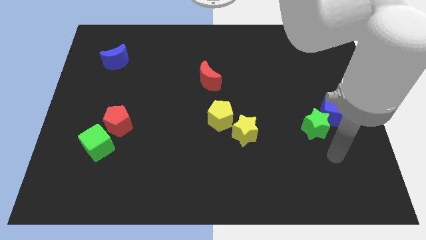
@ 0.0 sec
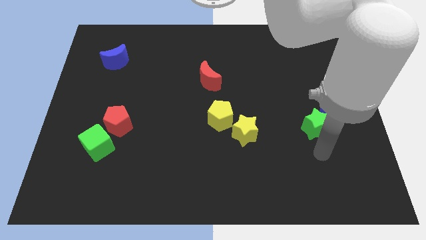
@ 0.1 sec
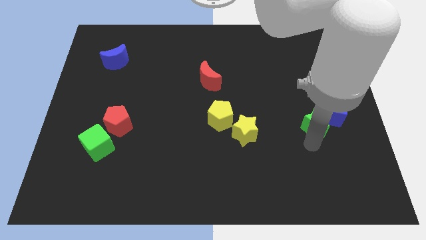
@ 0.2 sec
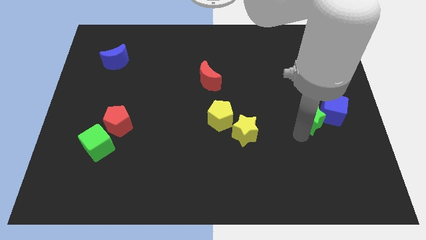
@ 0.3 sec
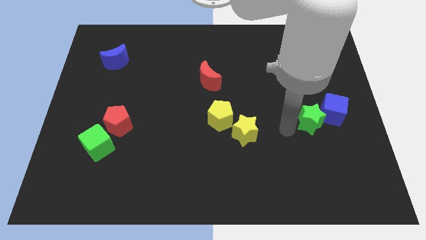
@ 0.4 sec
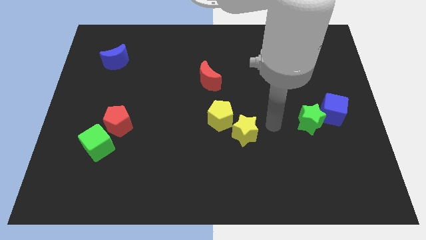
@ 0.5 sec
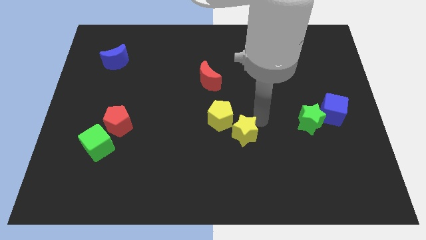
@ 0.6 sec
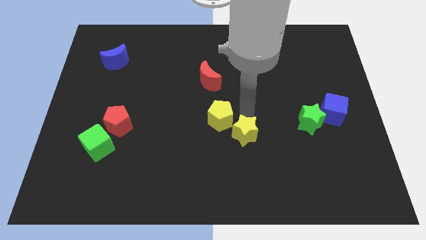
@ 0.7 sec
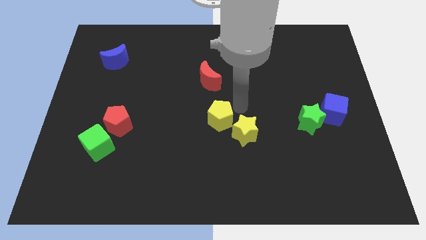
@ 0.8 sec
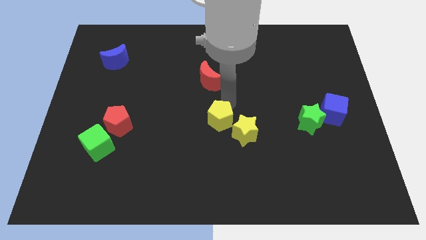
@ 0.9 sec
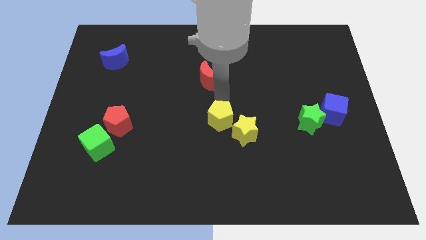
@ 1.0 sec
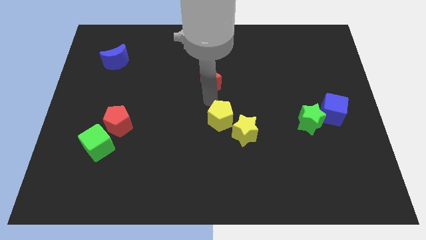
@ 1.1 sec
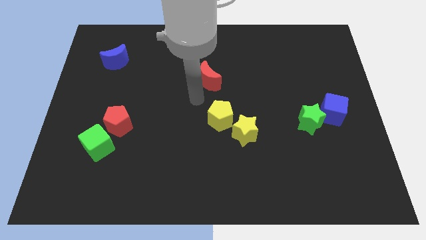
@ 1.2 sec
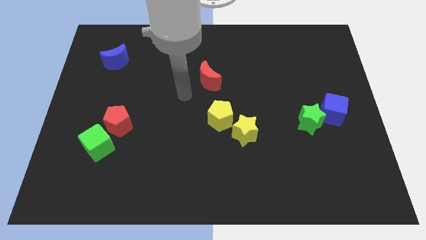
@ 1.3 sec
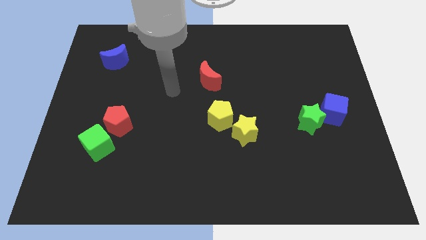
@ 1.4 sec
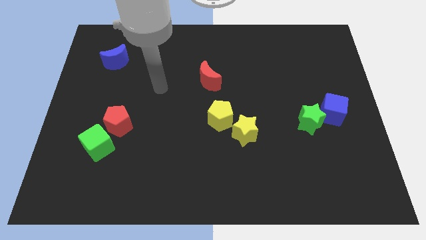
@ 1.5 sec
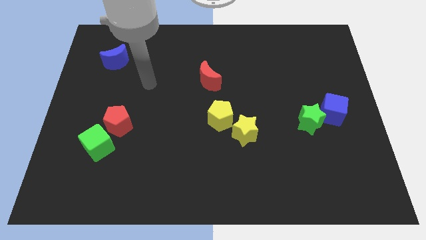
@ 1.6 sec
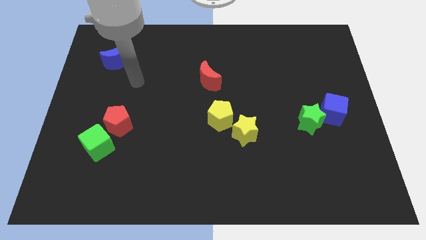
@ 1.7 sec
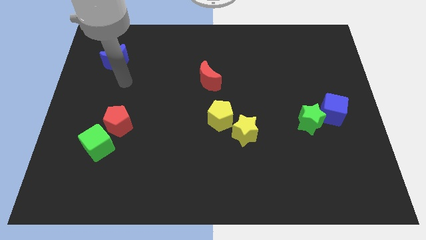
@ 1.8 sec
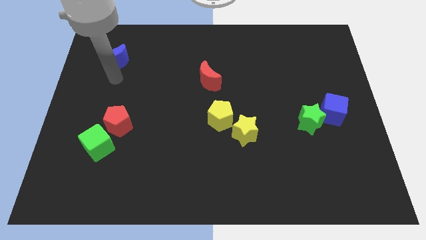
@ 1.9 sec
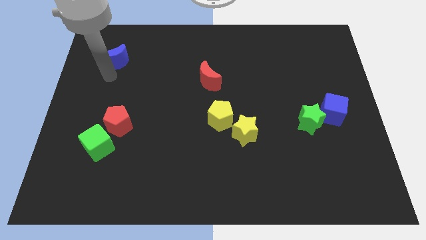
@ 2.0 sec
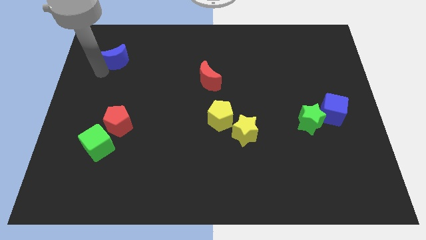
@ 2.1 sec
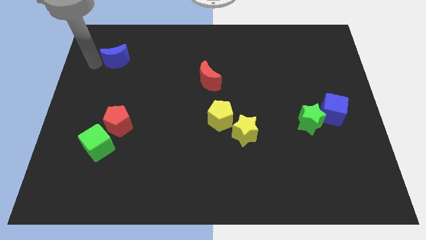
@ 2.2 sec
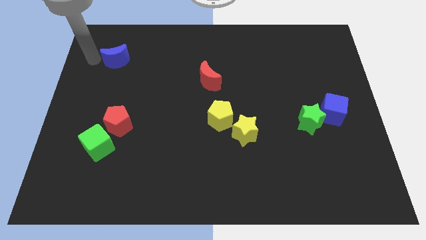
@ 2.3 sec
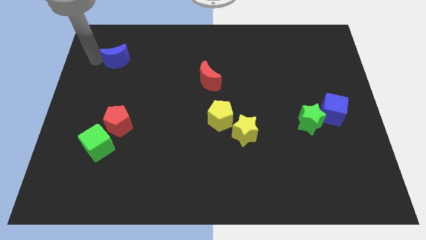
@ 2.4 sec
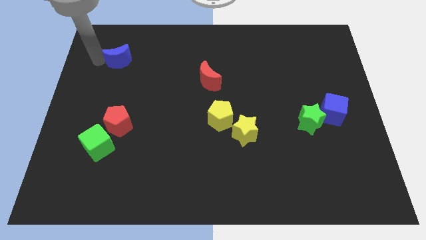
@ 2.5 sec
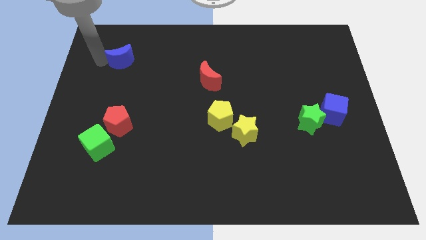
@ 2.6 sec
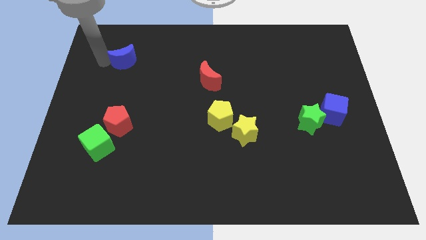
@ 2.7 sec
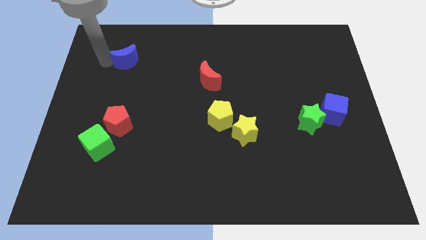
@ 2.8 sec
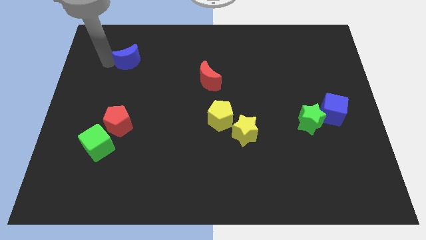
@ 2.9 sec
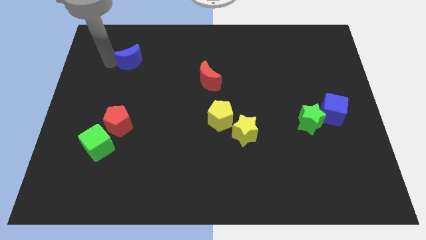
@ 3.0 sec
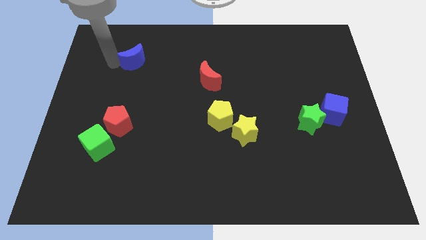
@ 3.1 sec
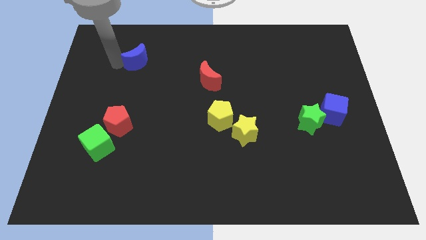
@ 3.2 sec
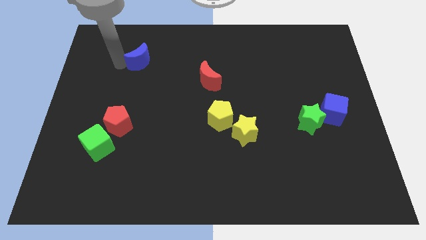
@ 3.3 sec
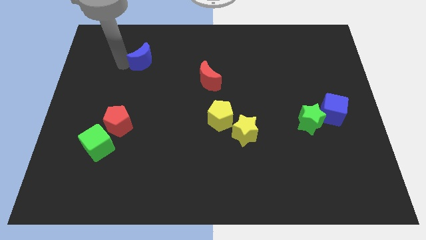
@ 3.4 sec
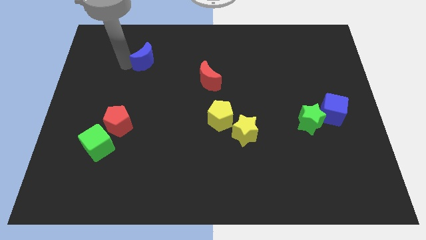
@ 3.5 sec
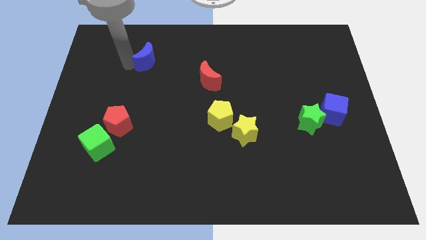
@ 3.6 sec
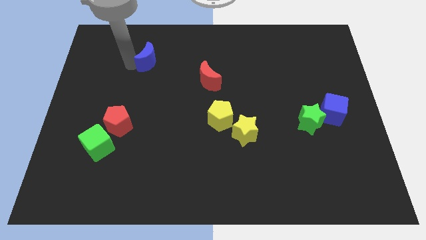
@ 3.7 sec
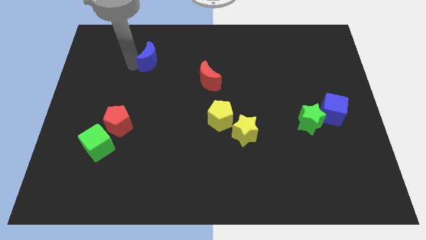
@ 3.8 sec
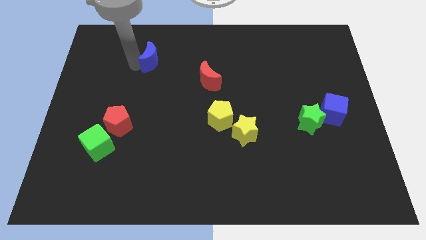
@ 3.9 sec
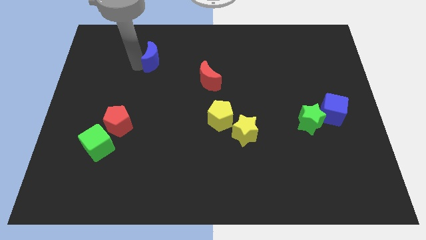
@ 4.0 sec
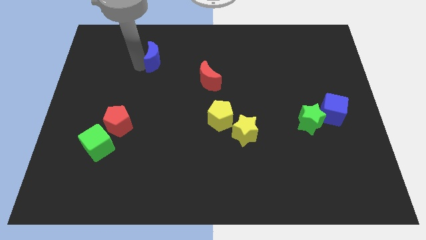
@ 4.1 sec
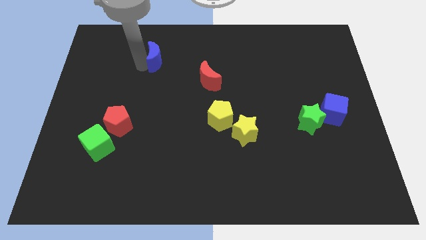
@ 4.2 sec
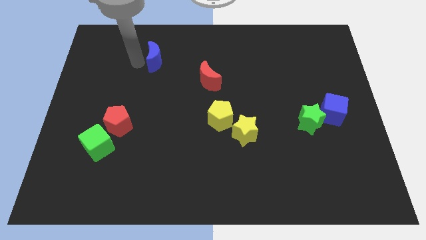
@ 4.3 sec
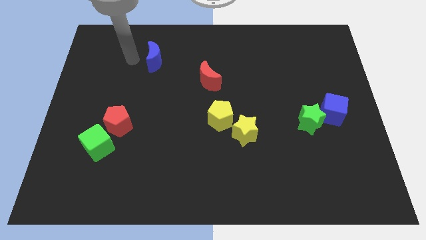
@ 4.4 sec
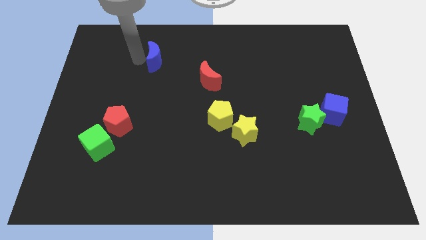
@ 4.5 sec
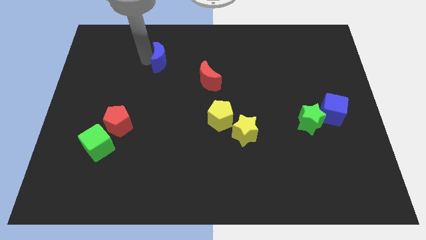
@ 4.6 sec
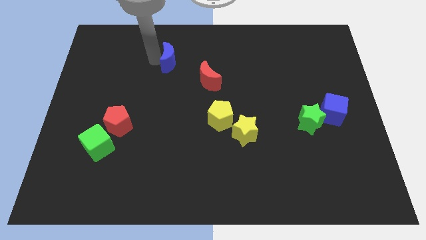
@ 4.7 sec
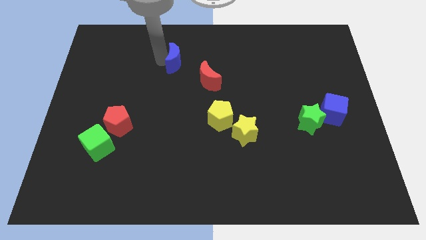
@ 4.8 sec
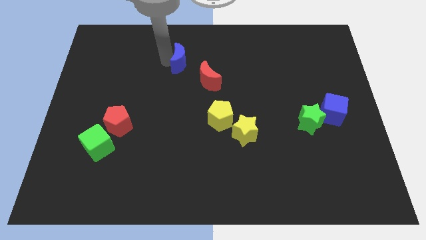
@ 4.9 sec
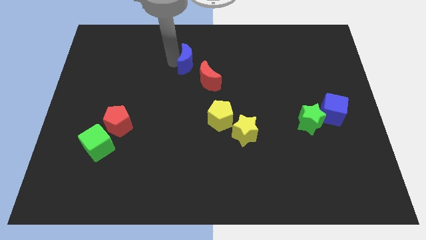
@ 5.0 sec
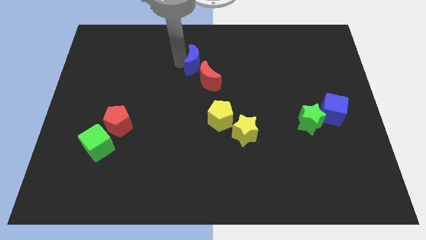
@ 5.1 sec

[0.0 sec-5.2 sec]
move the blue moon to the right

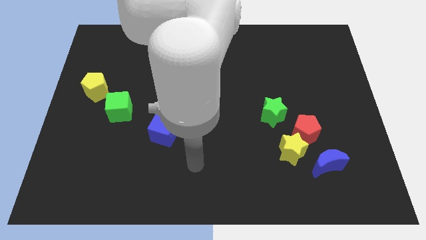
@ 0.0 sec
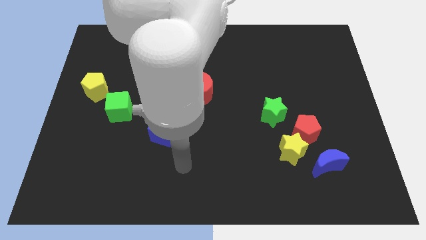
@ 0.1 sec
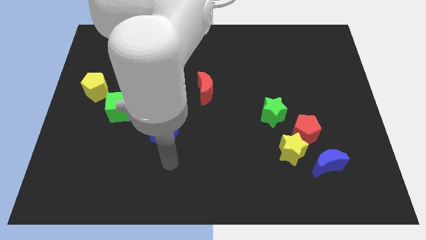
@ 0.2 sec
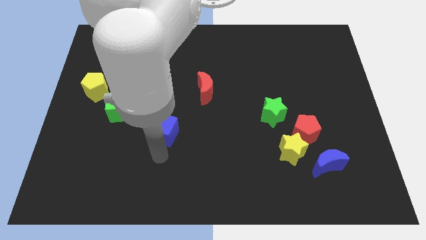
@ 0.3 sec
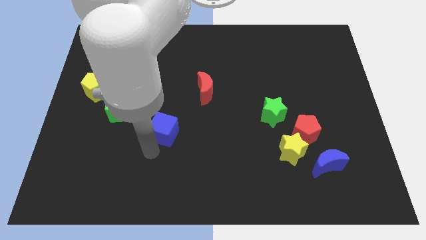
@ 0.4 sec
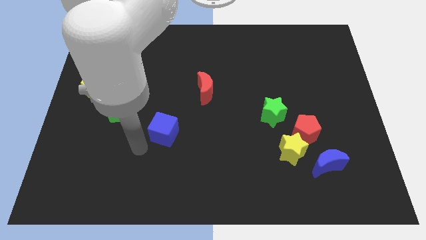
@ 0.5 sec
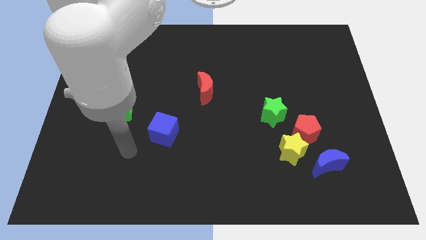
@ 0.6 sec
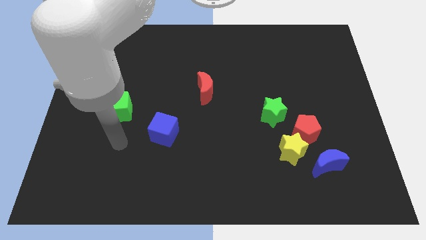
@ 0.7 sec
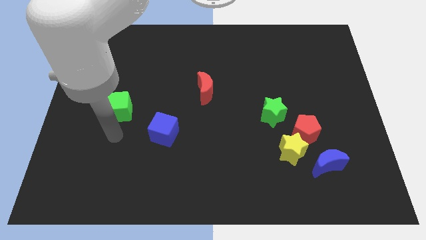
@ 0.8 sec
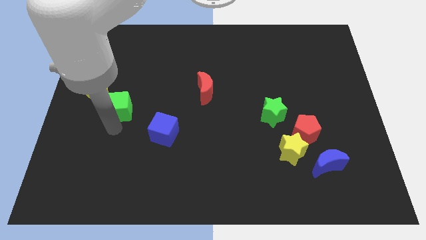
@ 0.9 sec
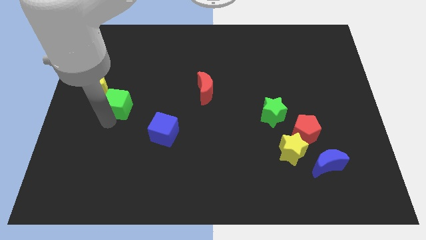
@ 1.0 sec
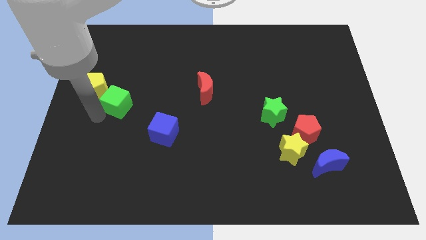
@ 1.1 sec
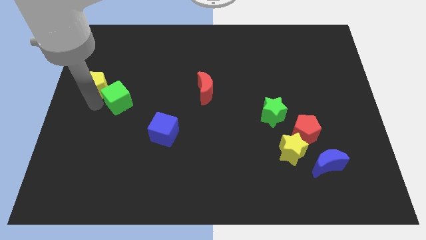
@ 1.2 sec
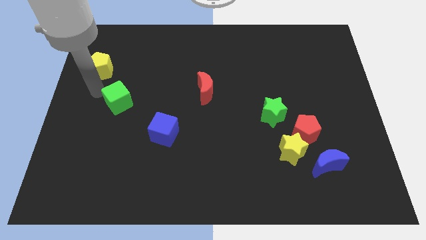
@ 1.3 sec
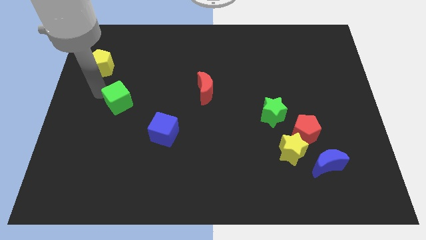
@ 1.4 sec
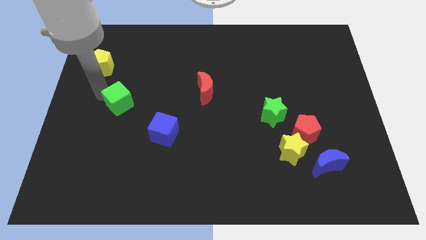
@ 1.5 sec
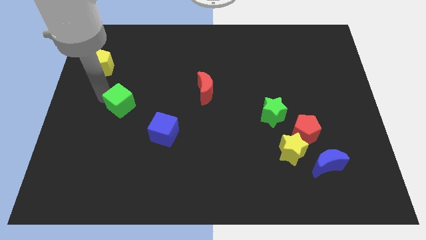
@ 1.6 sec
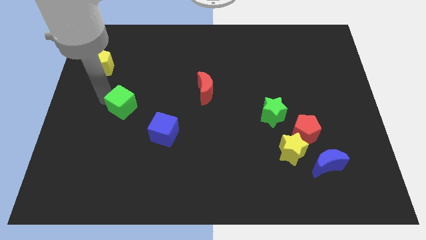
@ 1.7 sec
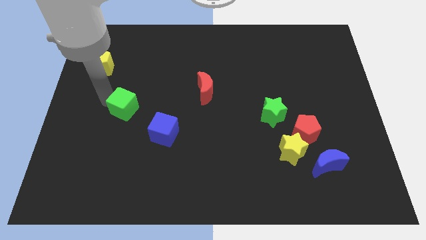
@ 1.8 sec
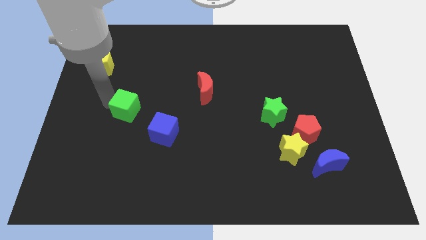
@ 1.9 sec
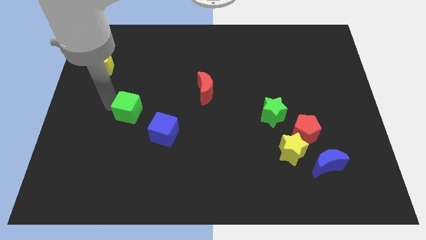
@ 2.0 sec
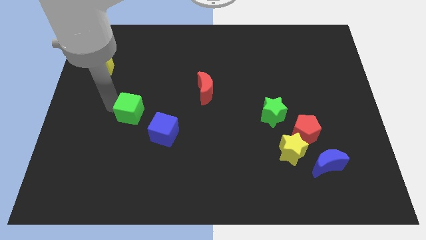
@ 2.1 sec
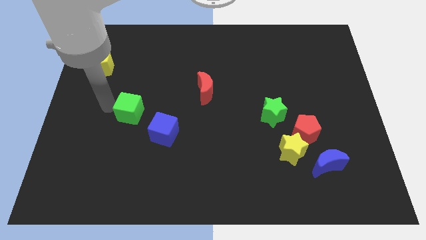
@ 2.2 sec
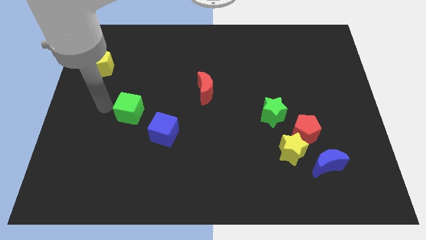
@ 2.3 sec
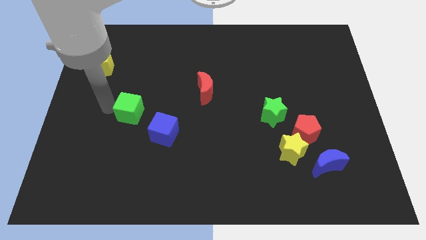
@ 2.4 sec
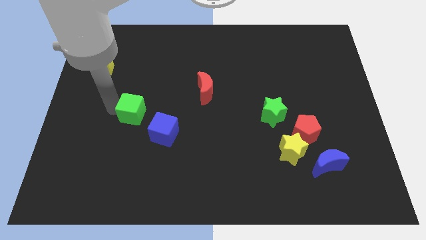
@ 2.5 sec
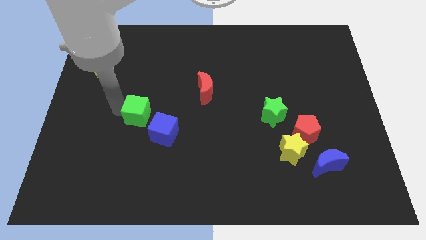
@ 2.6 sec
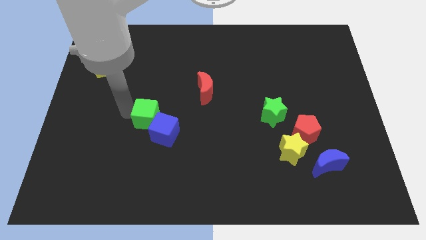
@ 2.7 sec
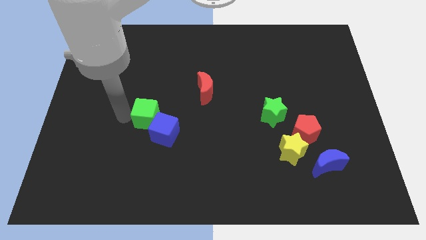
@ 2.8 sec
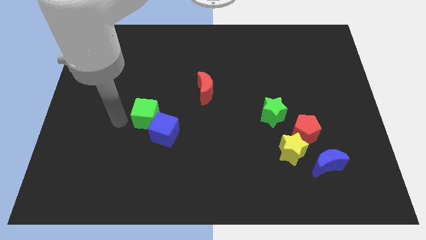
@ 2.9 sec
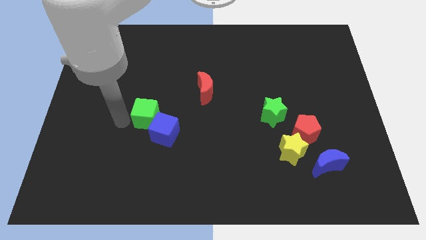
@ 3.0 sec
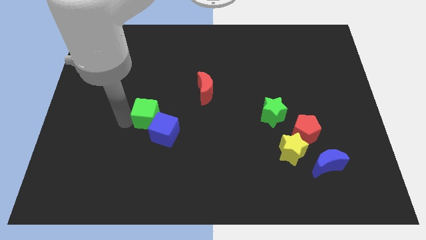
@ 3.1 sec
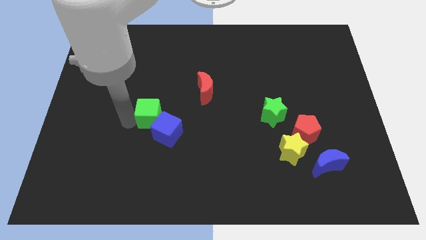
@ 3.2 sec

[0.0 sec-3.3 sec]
move the green cube slightly to the right

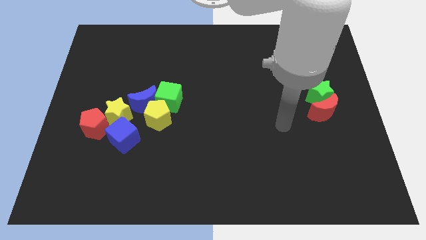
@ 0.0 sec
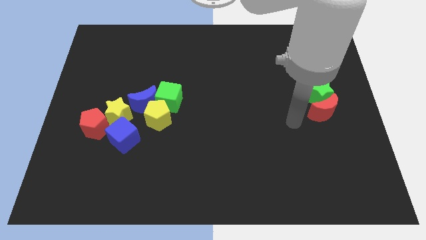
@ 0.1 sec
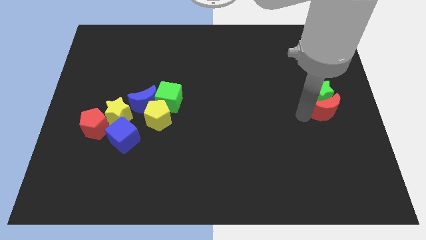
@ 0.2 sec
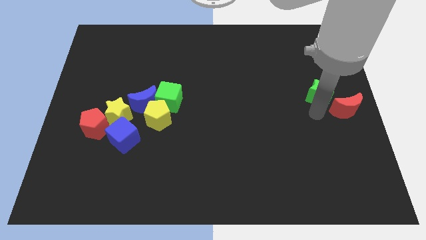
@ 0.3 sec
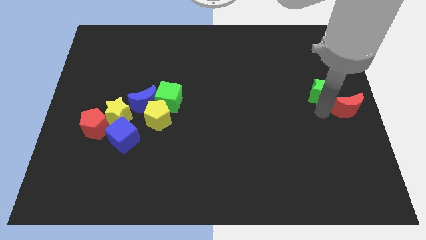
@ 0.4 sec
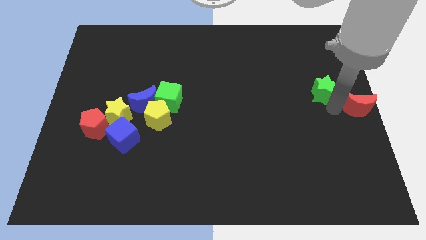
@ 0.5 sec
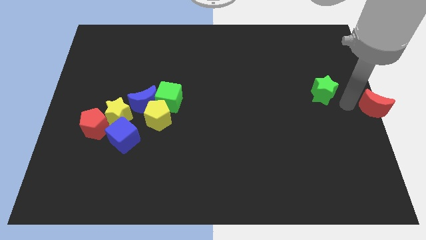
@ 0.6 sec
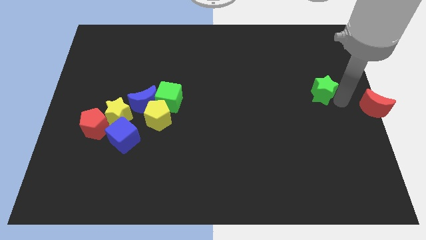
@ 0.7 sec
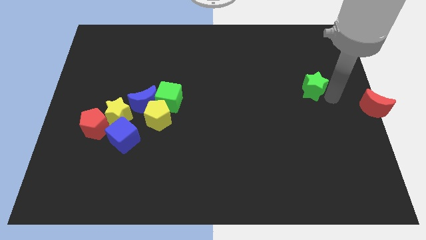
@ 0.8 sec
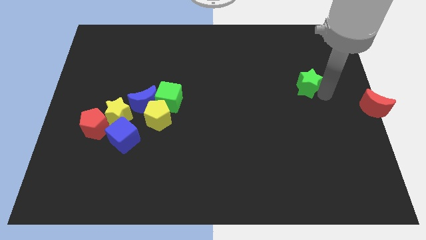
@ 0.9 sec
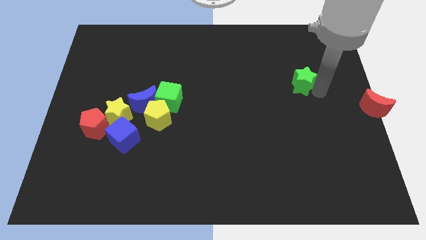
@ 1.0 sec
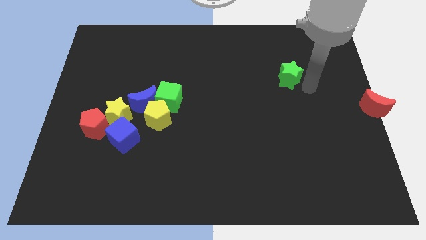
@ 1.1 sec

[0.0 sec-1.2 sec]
push the green star up and to the left a bit
